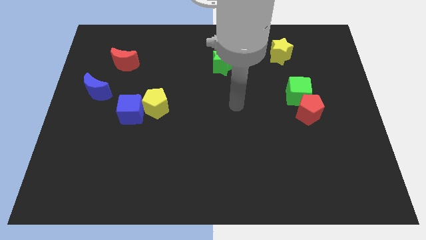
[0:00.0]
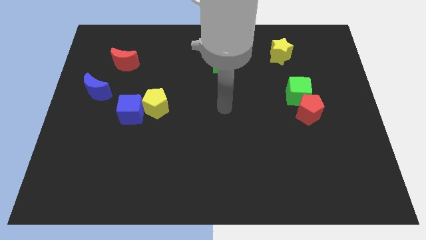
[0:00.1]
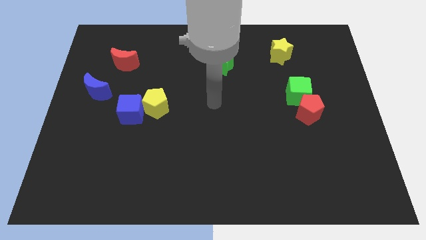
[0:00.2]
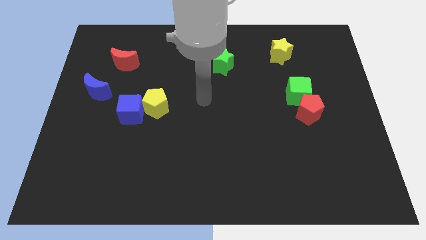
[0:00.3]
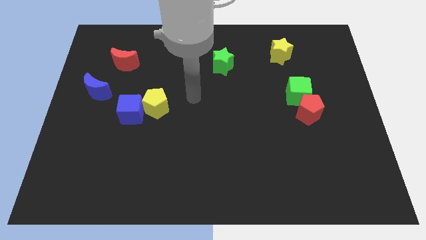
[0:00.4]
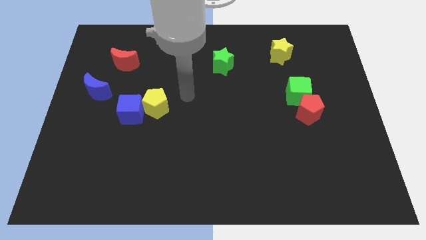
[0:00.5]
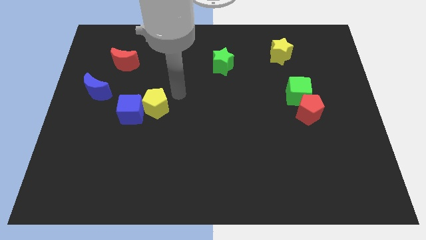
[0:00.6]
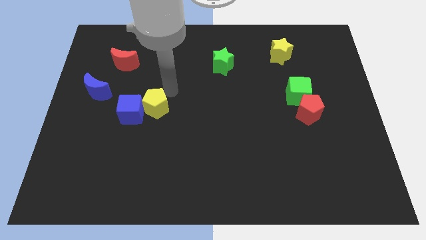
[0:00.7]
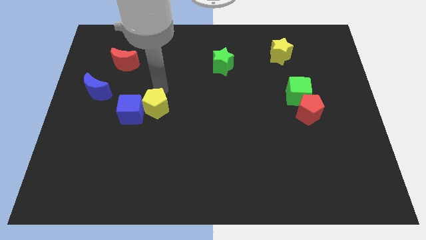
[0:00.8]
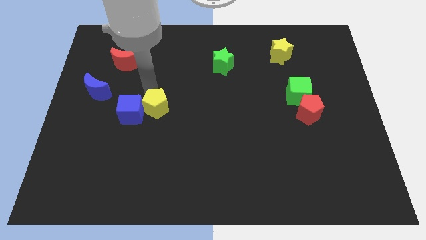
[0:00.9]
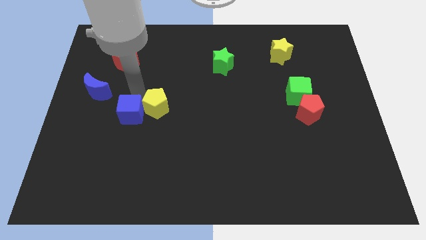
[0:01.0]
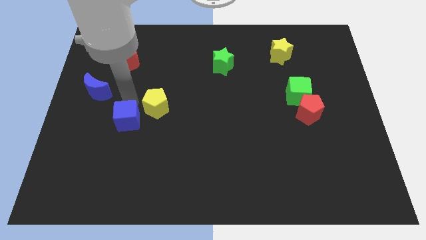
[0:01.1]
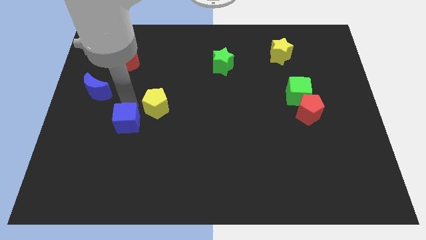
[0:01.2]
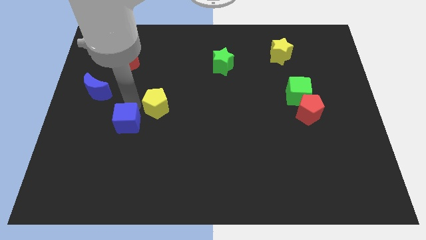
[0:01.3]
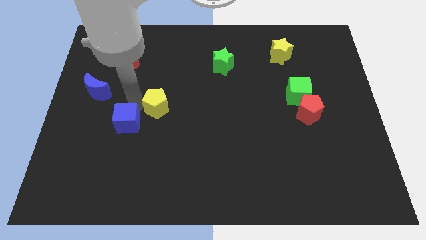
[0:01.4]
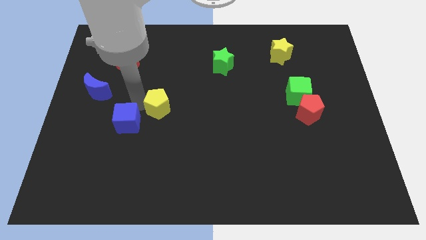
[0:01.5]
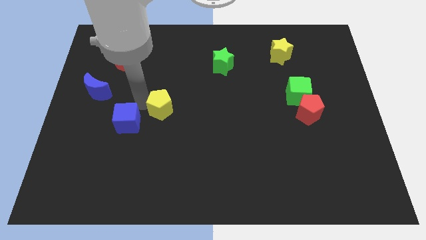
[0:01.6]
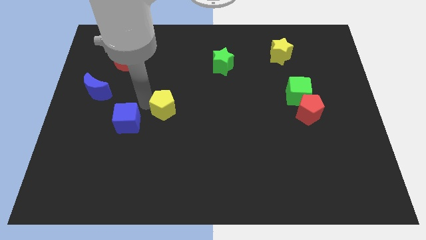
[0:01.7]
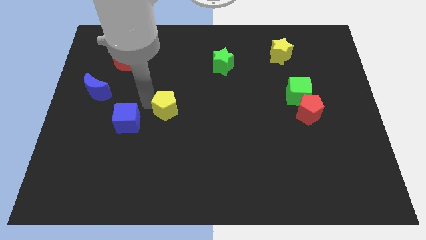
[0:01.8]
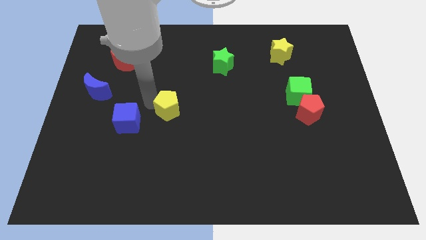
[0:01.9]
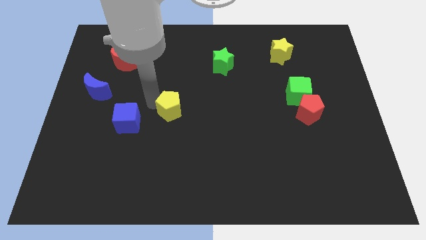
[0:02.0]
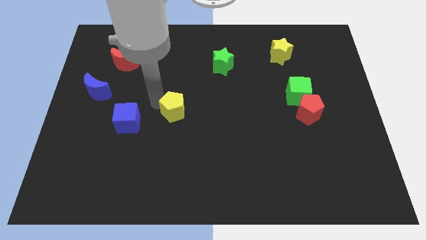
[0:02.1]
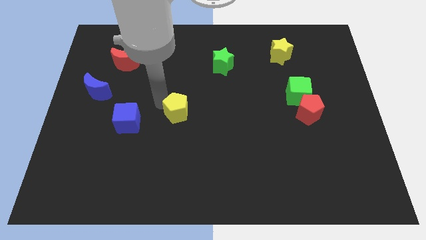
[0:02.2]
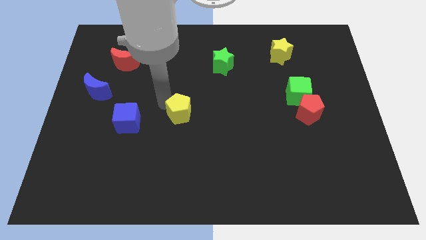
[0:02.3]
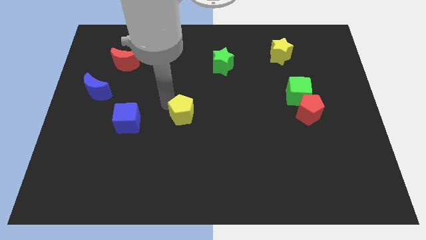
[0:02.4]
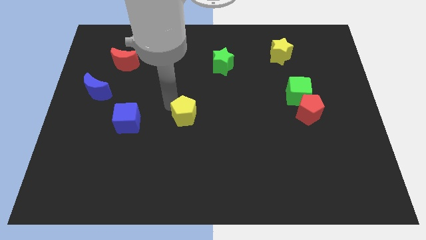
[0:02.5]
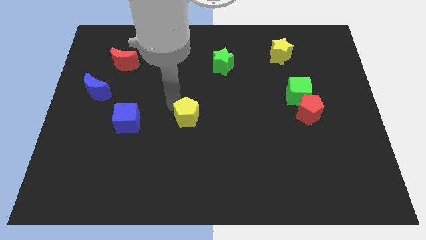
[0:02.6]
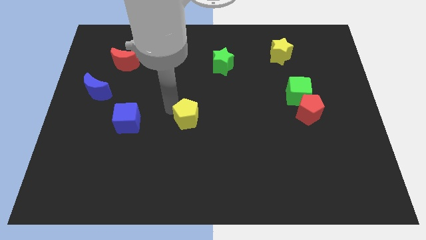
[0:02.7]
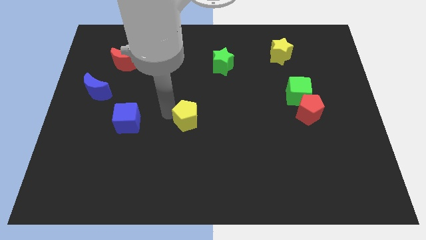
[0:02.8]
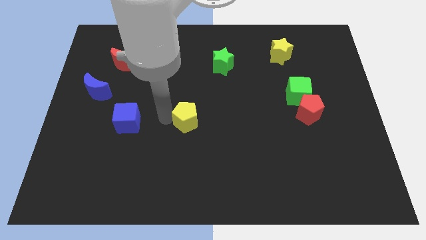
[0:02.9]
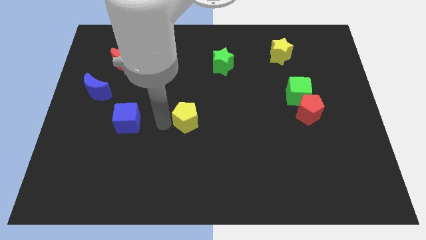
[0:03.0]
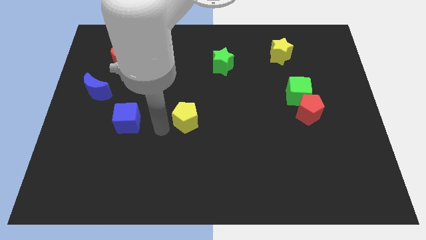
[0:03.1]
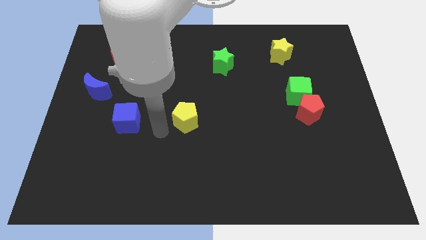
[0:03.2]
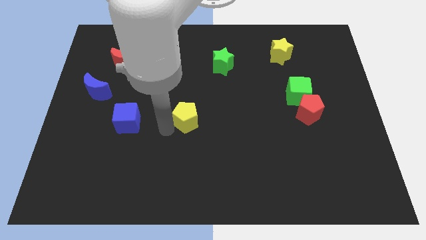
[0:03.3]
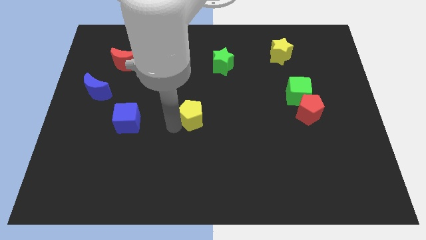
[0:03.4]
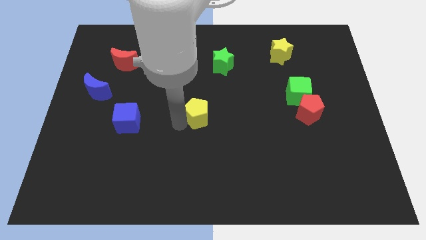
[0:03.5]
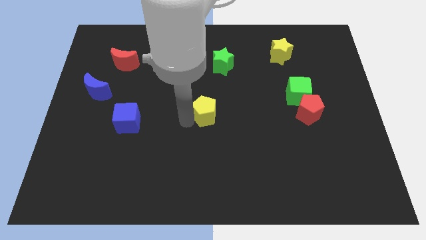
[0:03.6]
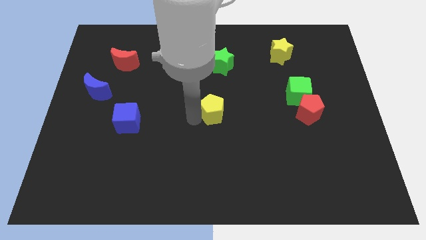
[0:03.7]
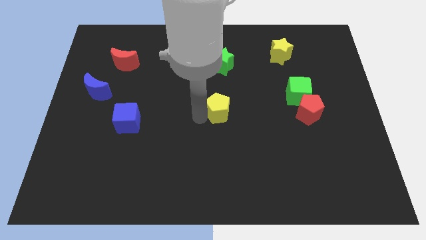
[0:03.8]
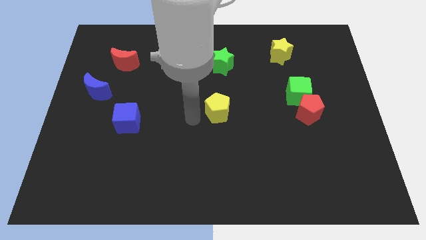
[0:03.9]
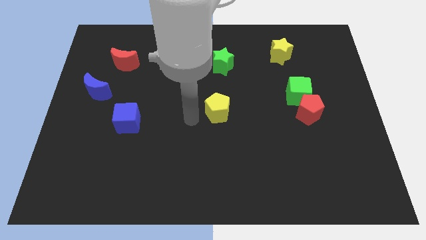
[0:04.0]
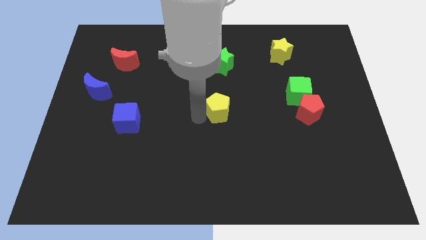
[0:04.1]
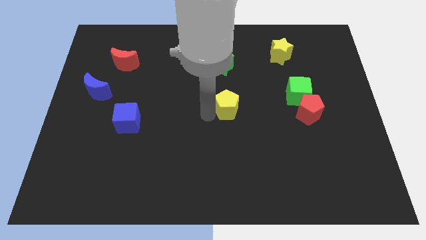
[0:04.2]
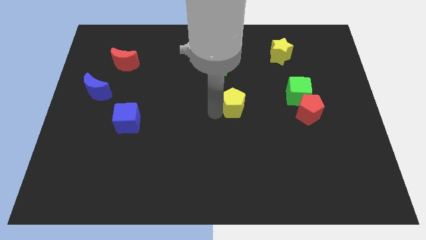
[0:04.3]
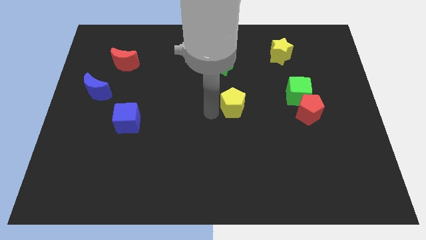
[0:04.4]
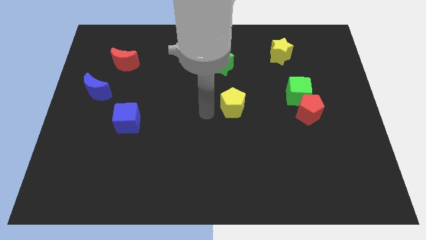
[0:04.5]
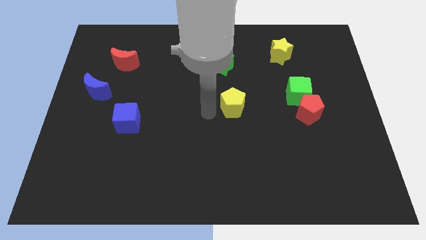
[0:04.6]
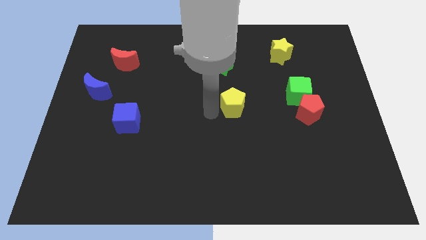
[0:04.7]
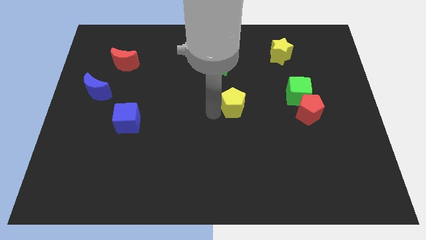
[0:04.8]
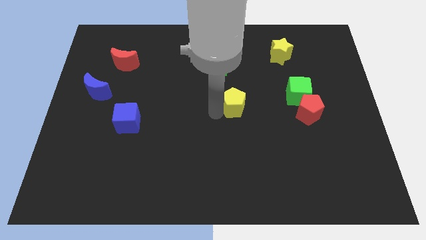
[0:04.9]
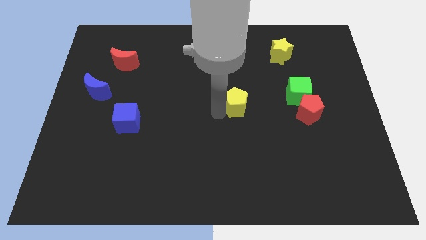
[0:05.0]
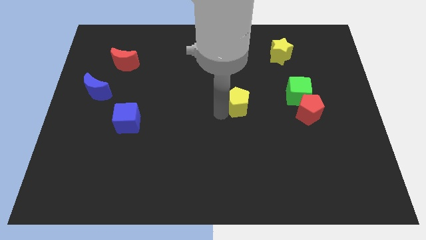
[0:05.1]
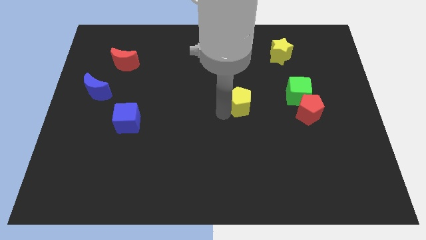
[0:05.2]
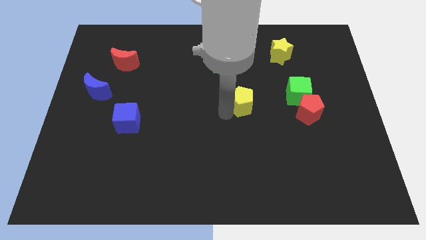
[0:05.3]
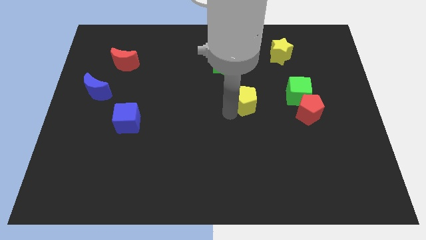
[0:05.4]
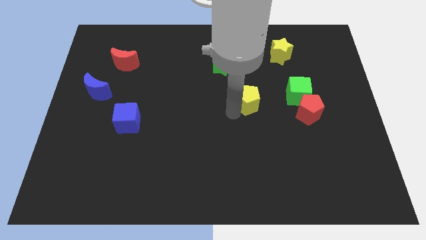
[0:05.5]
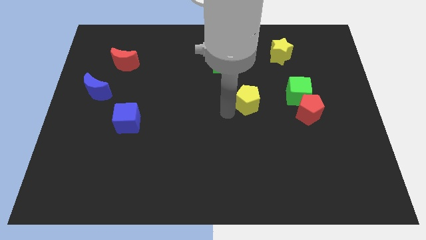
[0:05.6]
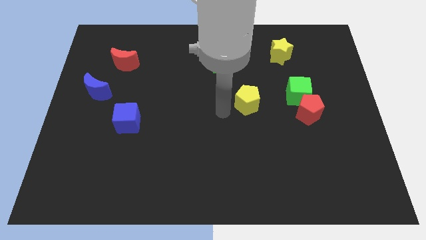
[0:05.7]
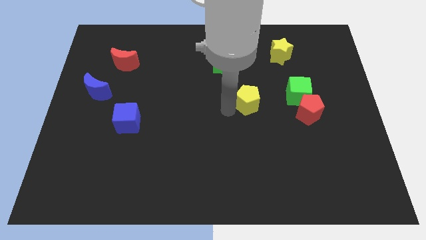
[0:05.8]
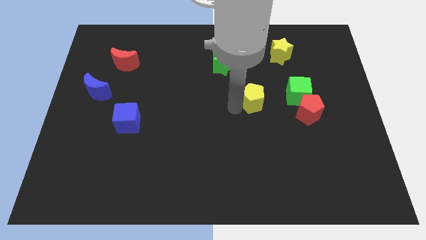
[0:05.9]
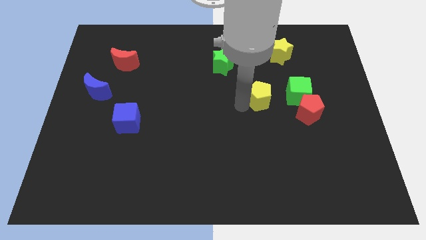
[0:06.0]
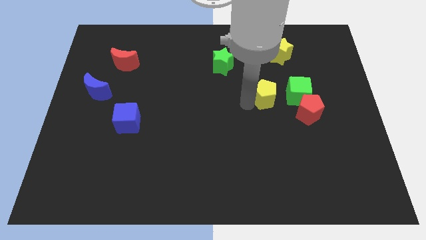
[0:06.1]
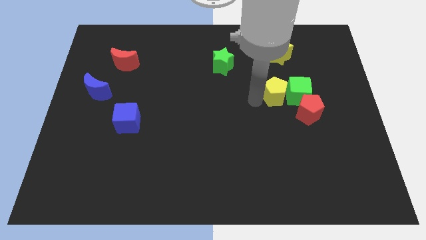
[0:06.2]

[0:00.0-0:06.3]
move the yellow pentagon next to the green cube

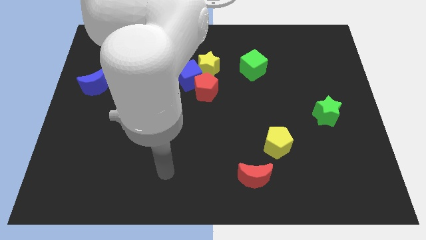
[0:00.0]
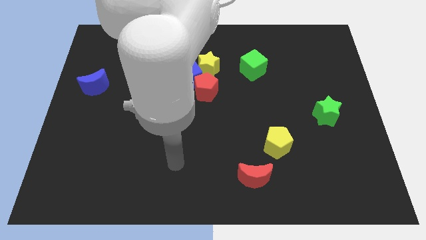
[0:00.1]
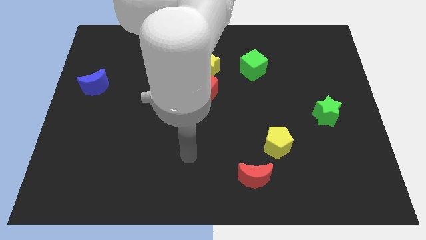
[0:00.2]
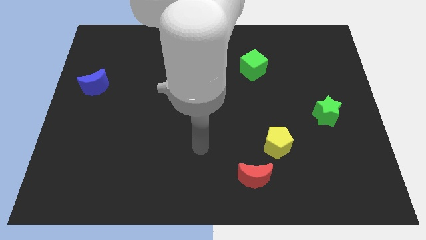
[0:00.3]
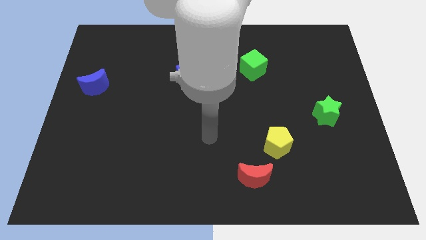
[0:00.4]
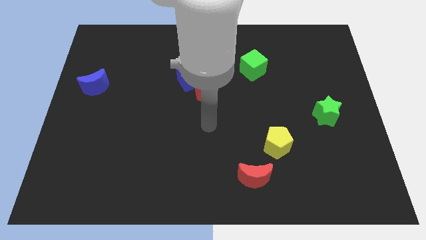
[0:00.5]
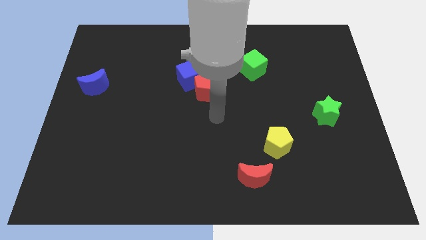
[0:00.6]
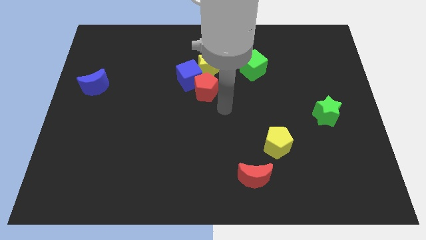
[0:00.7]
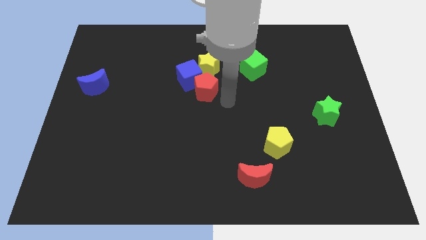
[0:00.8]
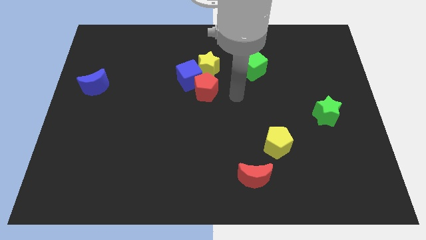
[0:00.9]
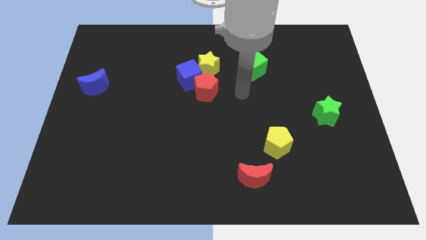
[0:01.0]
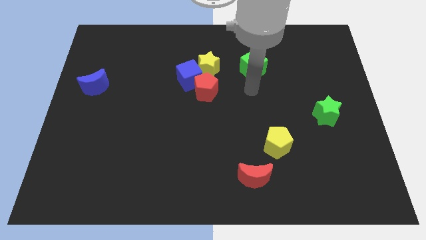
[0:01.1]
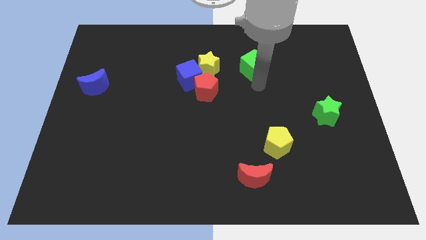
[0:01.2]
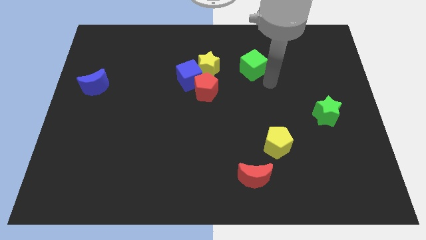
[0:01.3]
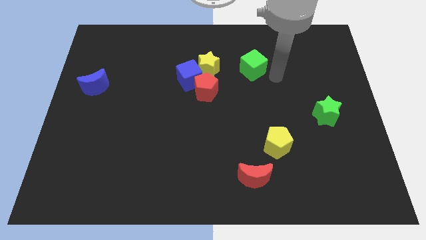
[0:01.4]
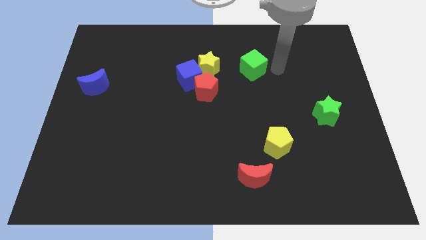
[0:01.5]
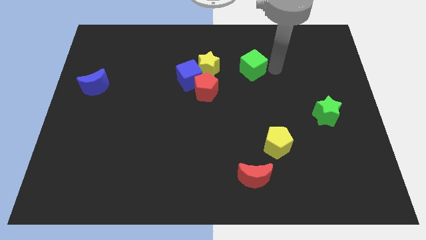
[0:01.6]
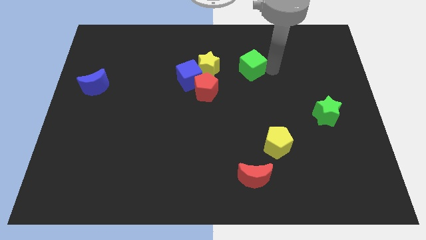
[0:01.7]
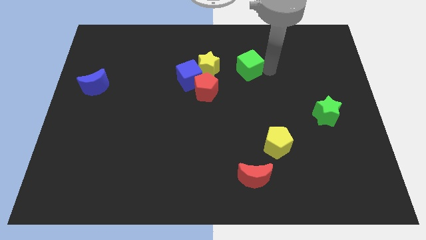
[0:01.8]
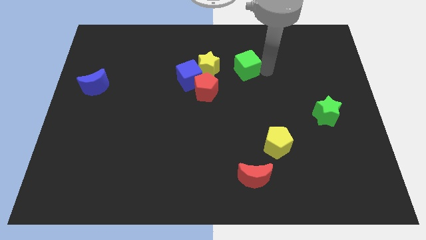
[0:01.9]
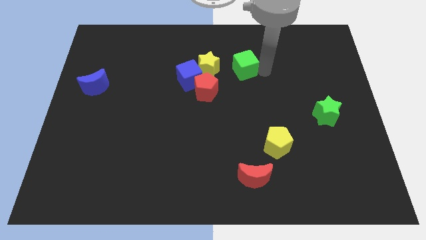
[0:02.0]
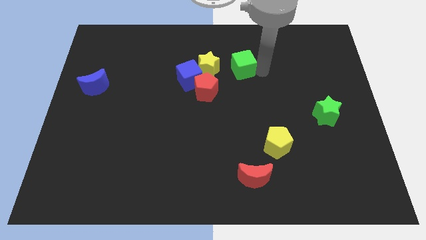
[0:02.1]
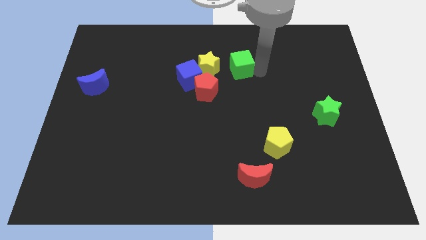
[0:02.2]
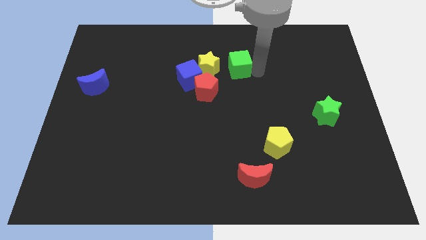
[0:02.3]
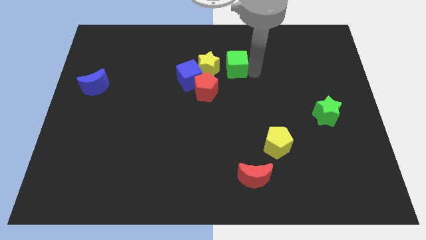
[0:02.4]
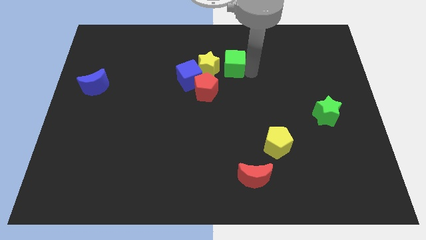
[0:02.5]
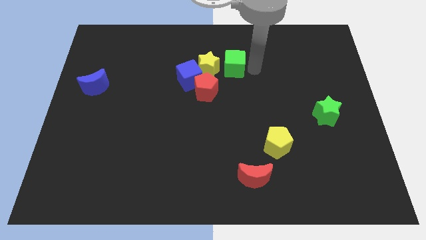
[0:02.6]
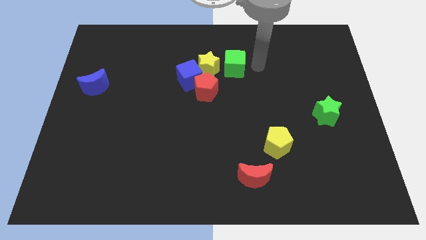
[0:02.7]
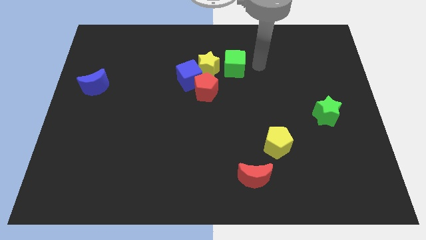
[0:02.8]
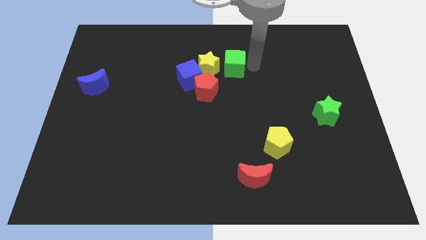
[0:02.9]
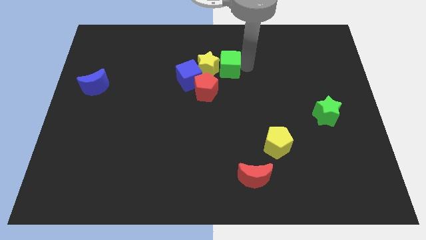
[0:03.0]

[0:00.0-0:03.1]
slide the green cube next to the yellow star
